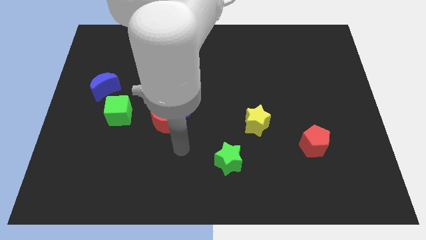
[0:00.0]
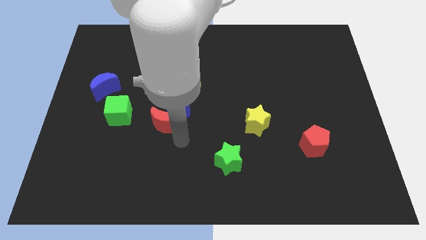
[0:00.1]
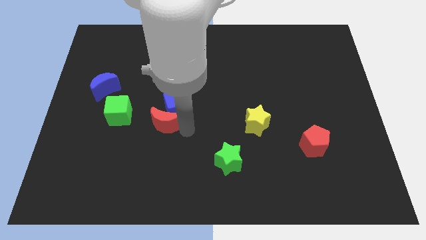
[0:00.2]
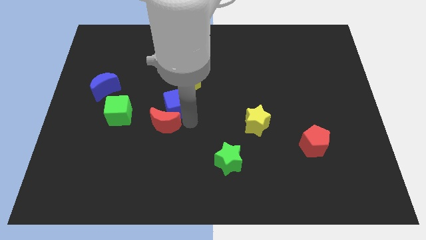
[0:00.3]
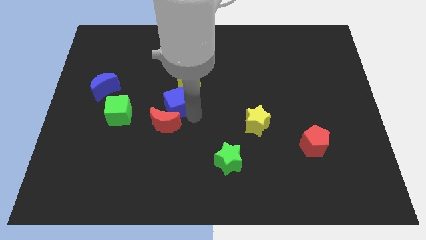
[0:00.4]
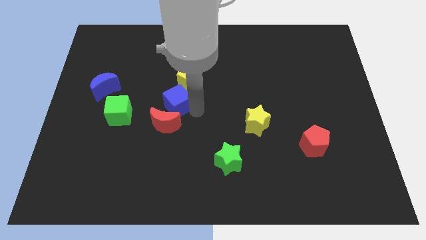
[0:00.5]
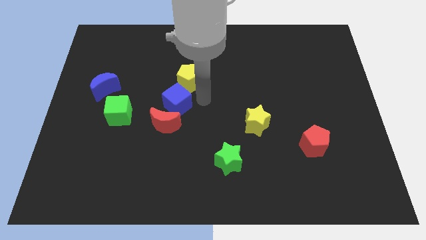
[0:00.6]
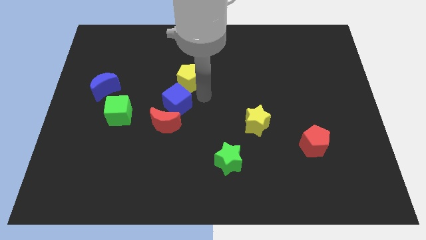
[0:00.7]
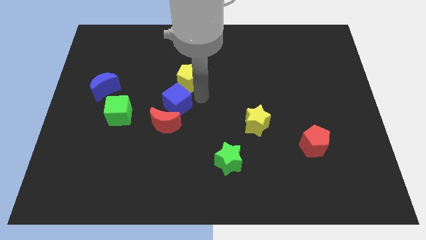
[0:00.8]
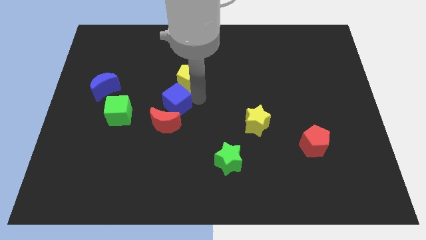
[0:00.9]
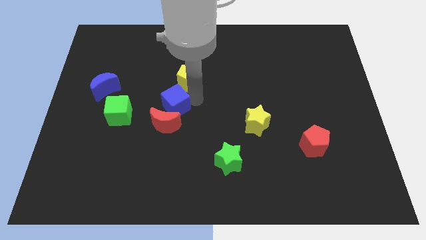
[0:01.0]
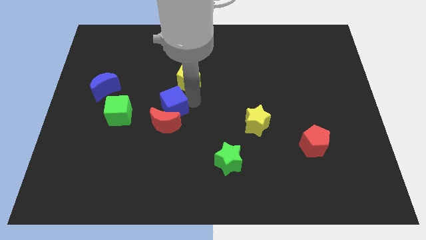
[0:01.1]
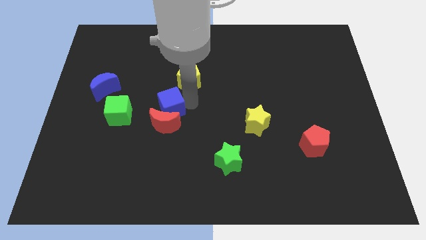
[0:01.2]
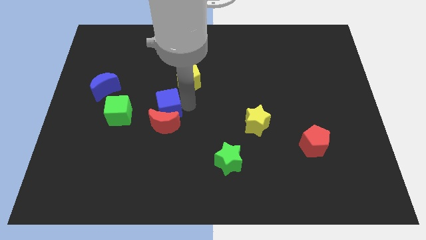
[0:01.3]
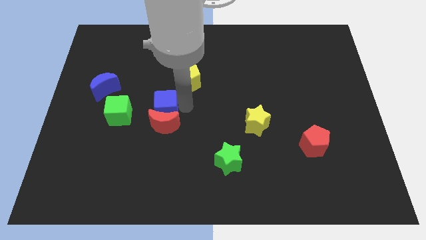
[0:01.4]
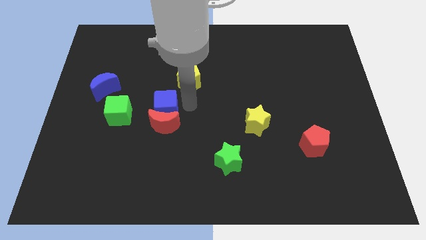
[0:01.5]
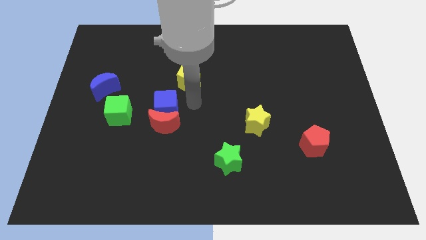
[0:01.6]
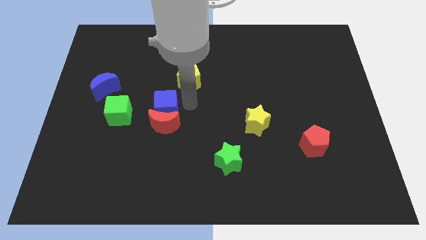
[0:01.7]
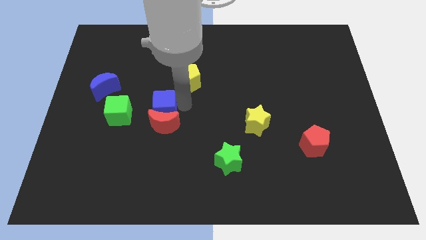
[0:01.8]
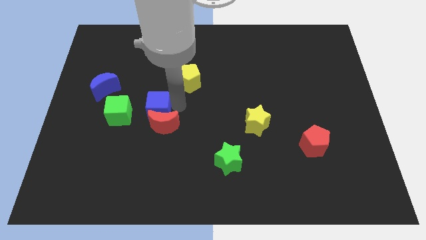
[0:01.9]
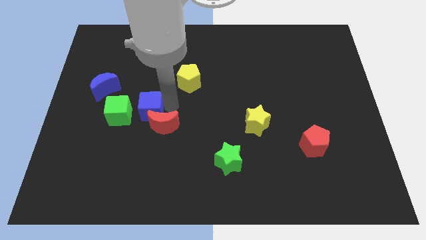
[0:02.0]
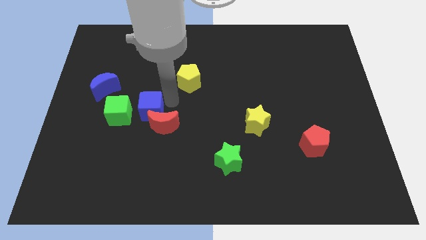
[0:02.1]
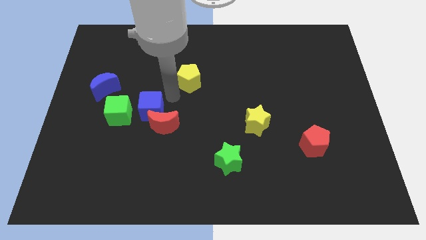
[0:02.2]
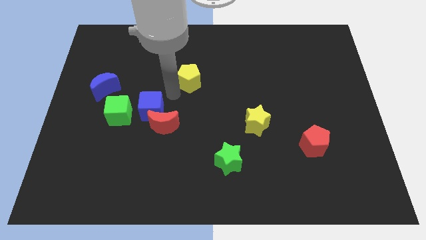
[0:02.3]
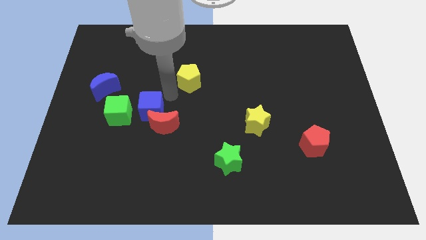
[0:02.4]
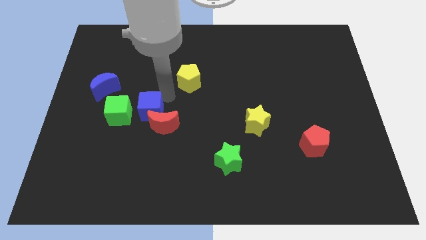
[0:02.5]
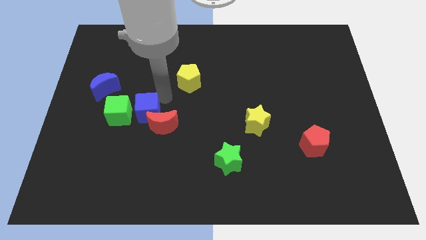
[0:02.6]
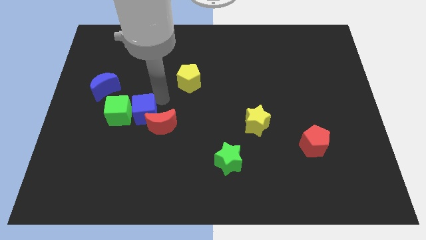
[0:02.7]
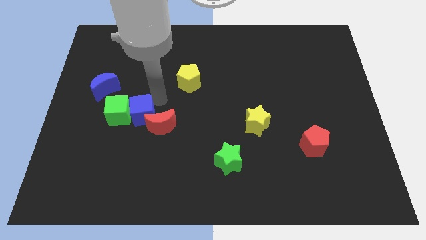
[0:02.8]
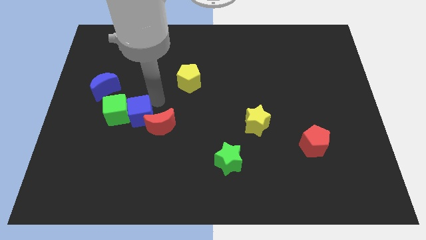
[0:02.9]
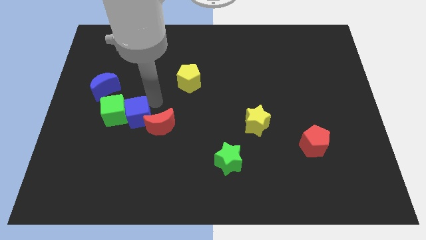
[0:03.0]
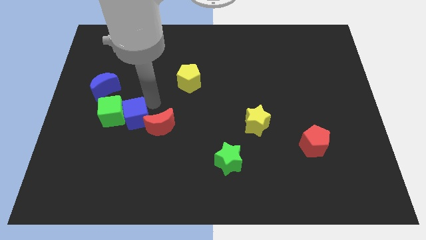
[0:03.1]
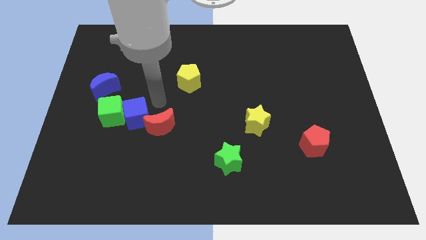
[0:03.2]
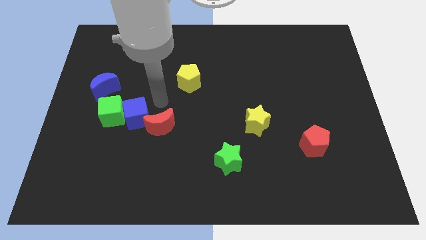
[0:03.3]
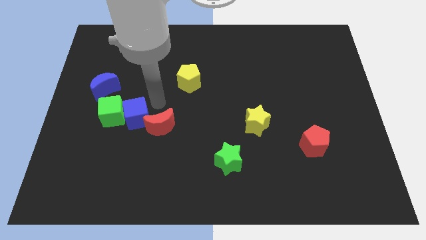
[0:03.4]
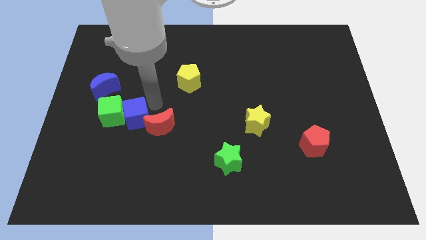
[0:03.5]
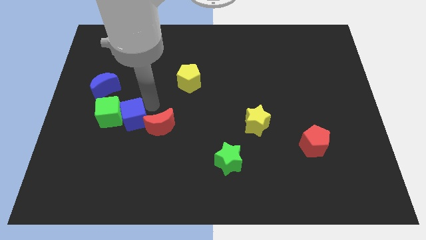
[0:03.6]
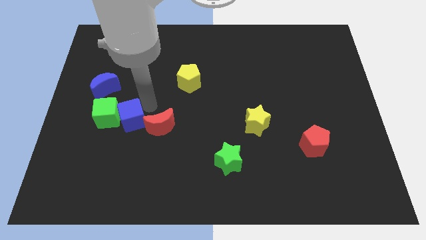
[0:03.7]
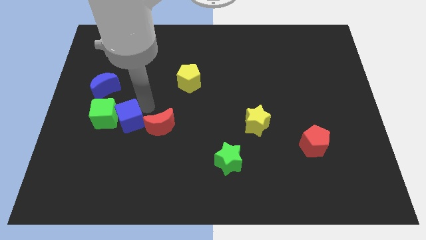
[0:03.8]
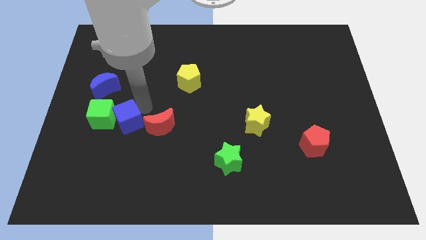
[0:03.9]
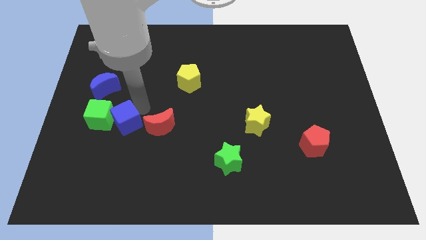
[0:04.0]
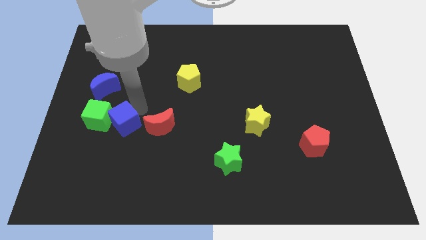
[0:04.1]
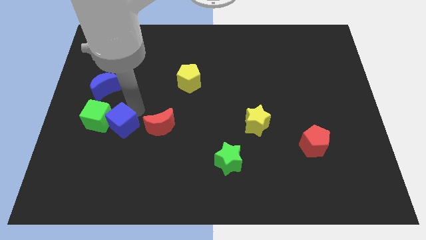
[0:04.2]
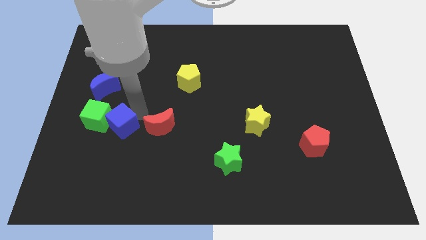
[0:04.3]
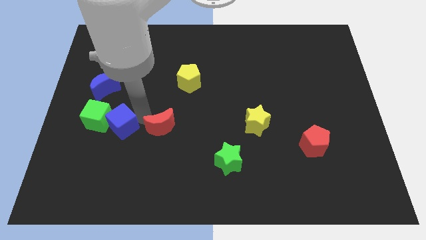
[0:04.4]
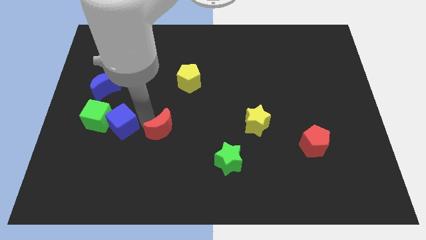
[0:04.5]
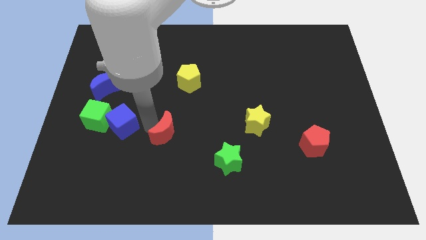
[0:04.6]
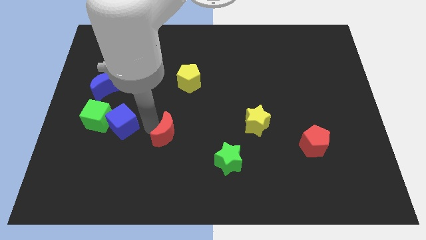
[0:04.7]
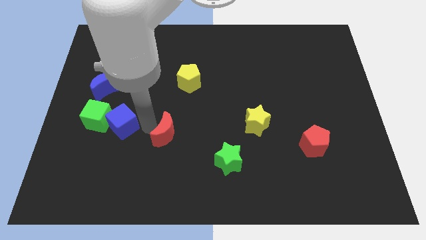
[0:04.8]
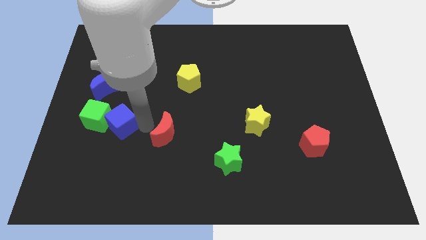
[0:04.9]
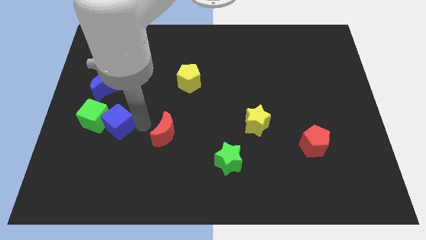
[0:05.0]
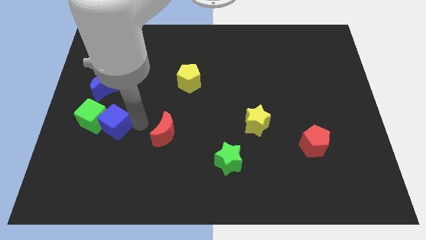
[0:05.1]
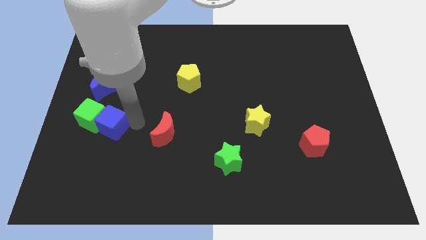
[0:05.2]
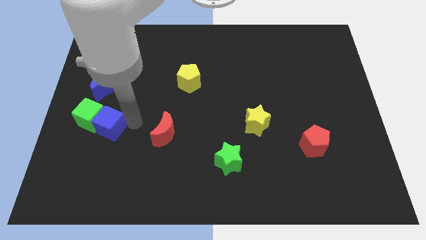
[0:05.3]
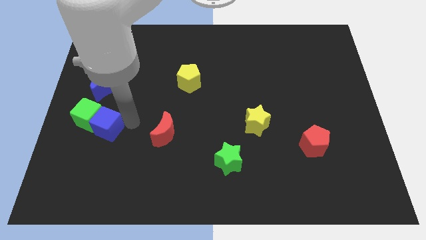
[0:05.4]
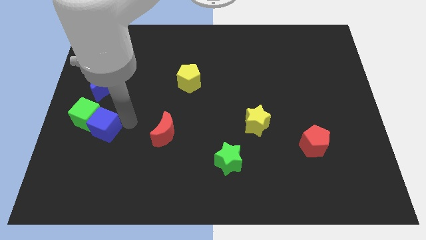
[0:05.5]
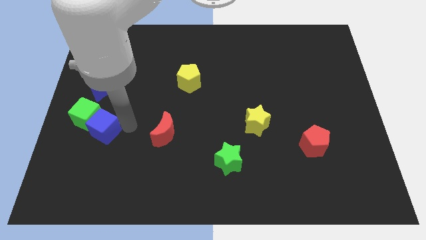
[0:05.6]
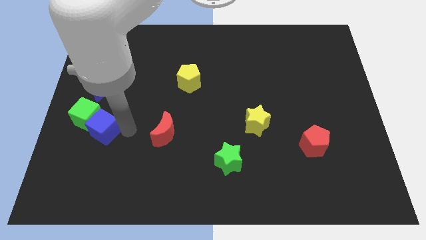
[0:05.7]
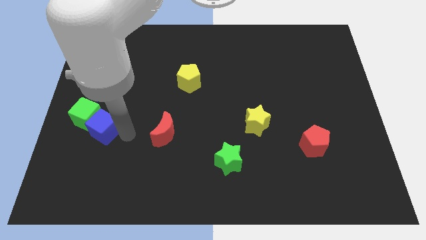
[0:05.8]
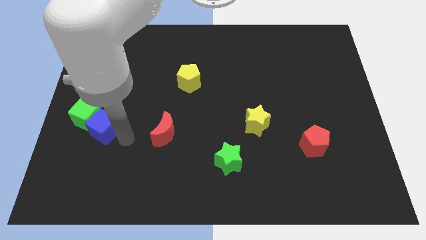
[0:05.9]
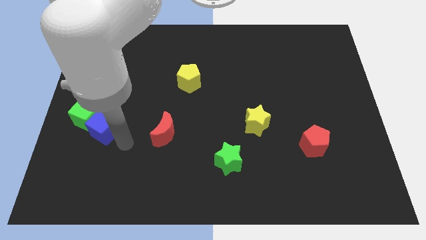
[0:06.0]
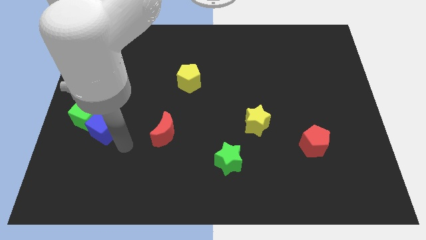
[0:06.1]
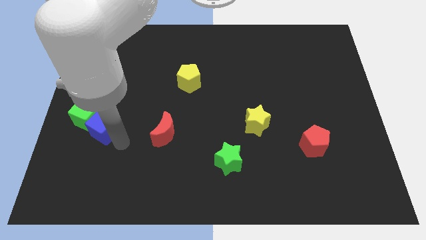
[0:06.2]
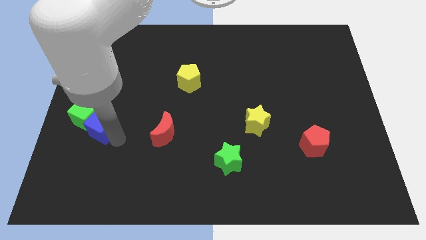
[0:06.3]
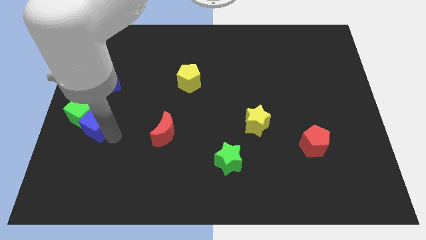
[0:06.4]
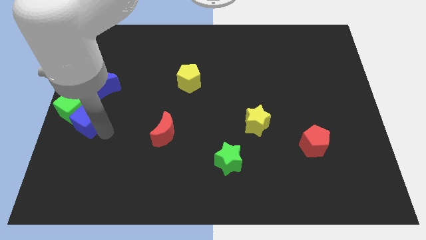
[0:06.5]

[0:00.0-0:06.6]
slide the blue cube to the left side of the board

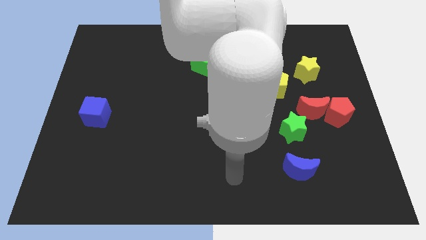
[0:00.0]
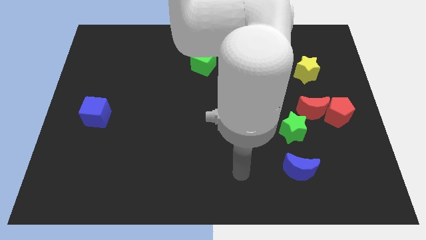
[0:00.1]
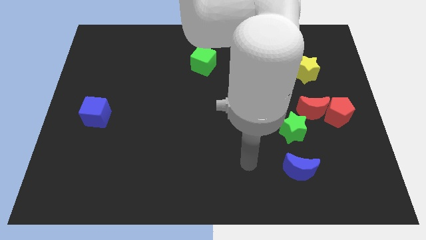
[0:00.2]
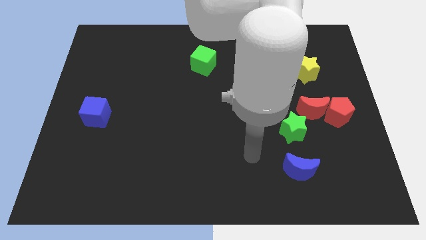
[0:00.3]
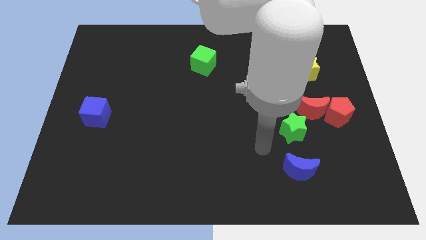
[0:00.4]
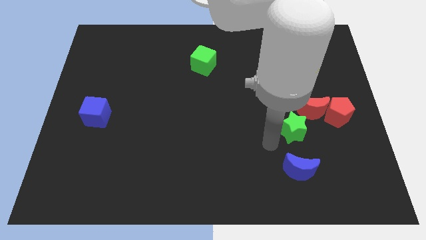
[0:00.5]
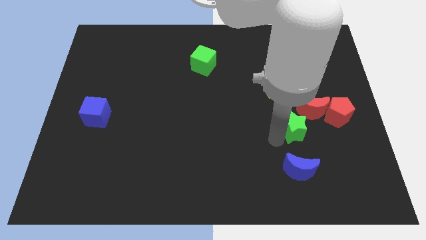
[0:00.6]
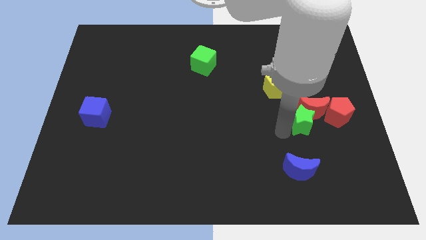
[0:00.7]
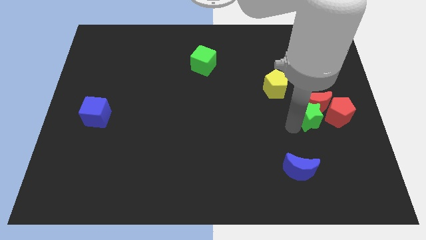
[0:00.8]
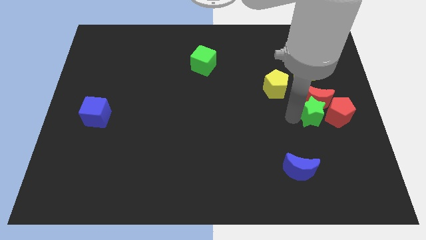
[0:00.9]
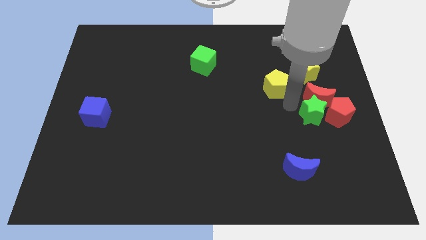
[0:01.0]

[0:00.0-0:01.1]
put the red moon to the right side of the board
